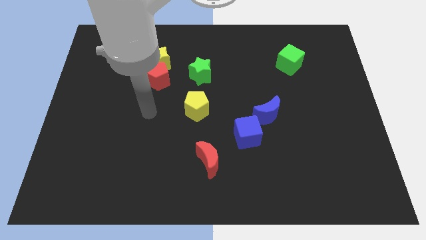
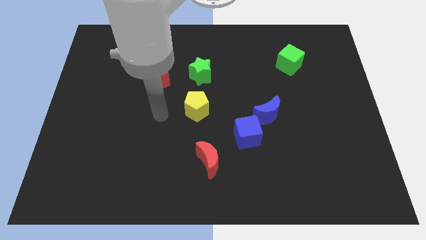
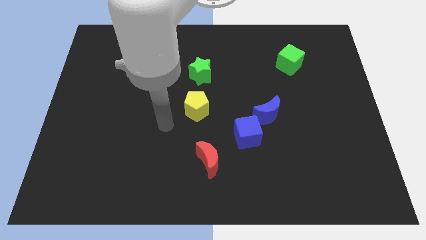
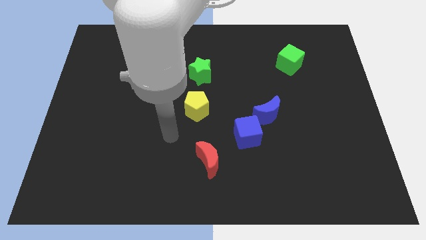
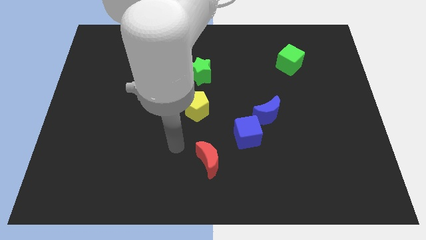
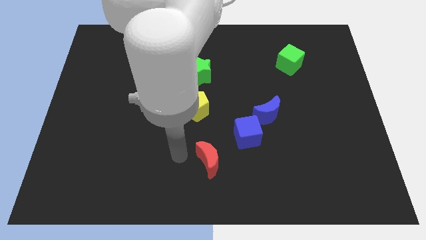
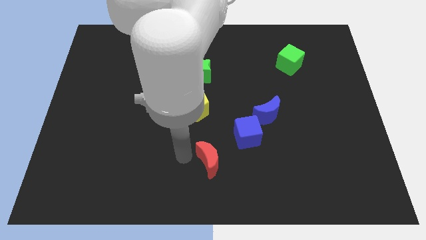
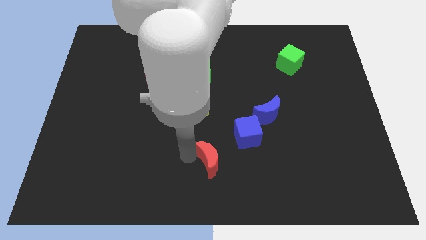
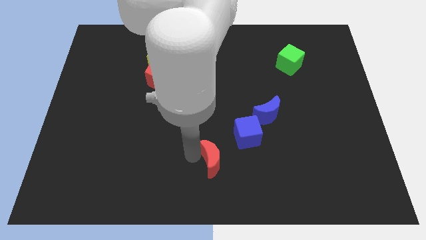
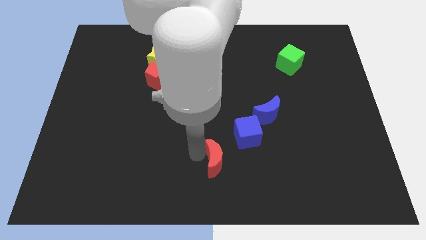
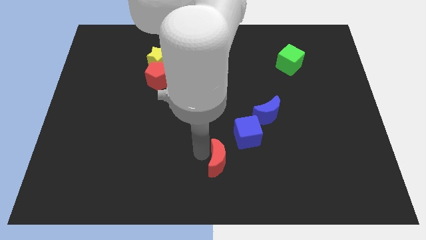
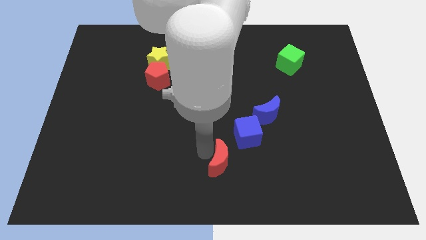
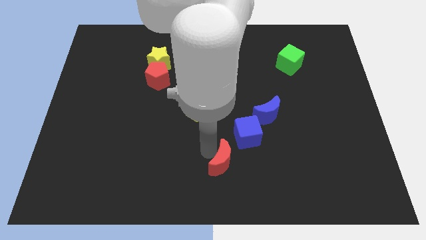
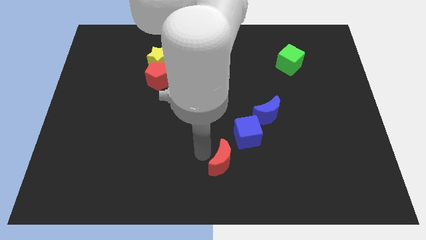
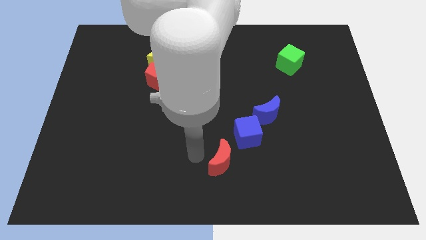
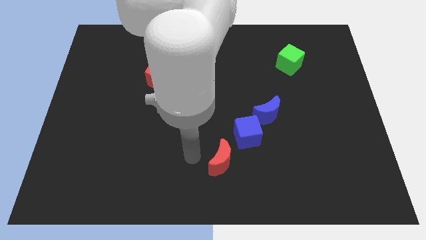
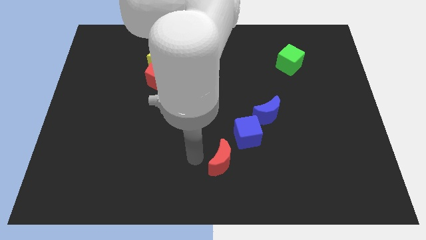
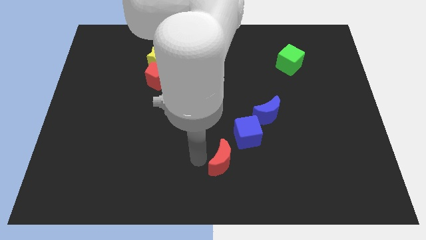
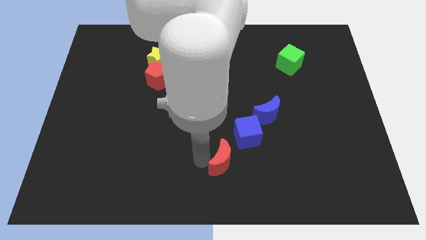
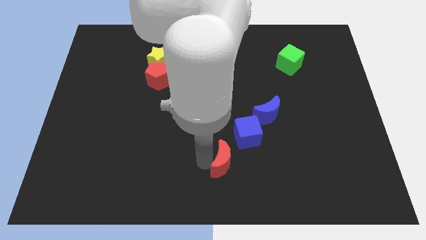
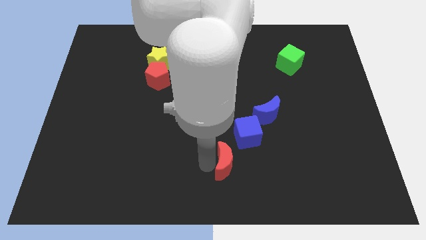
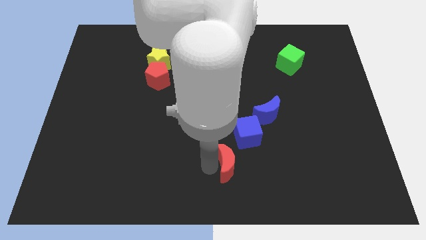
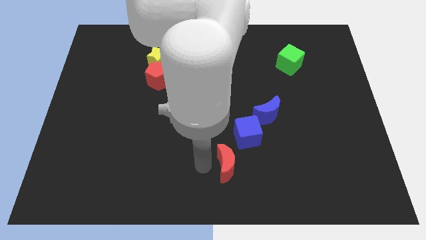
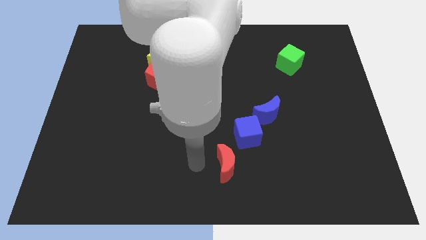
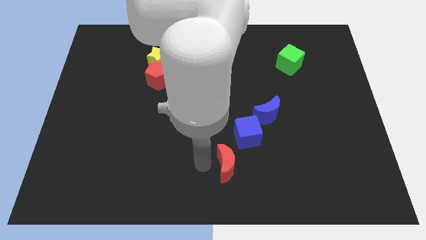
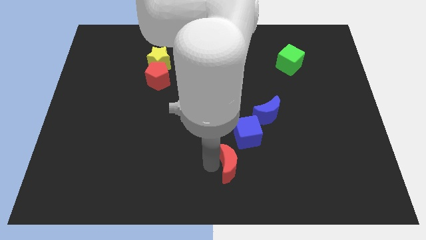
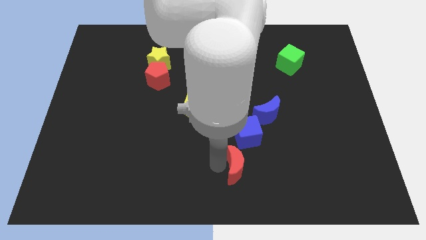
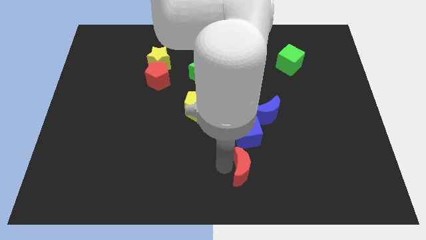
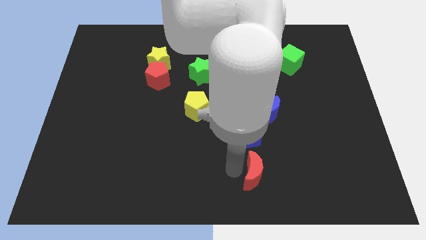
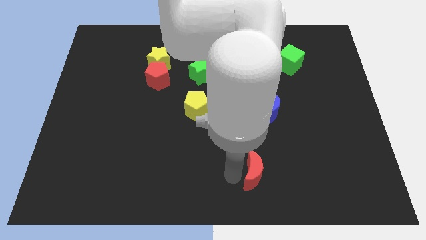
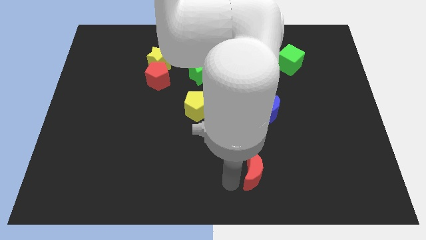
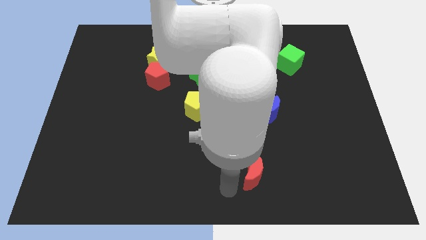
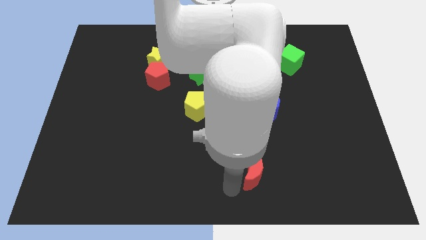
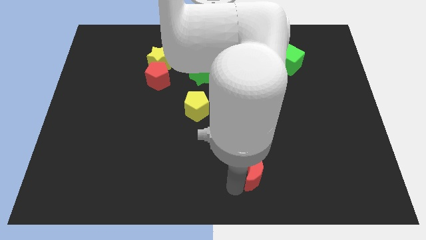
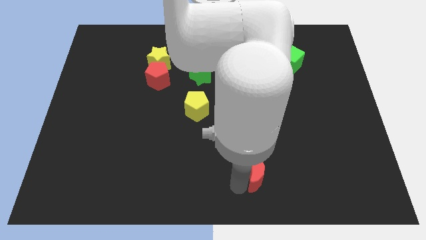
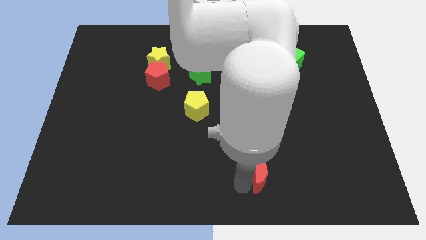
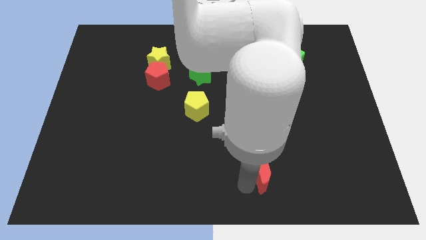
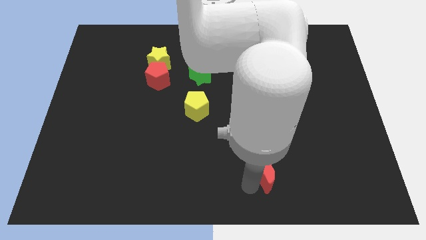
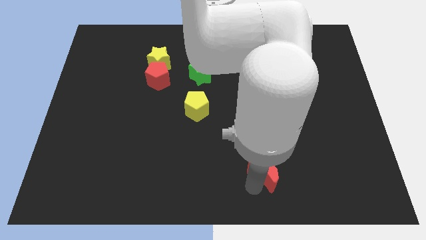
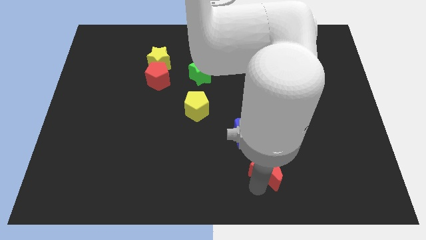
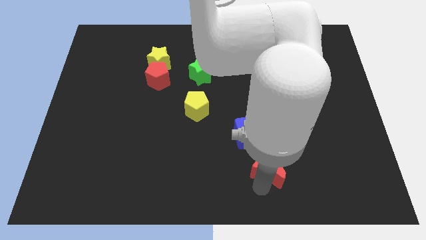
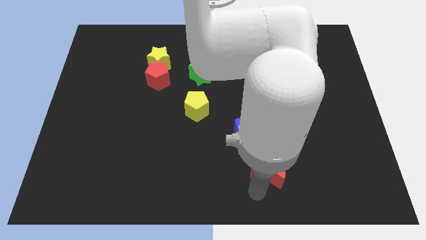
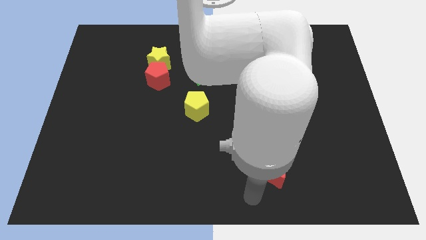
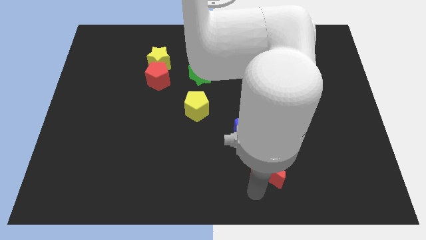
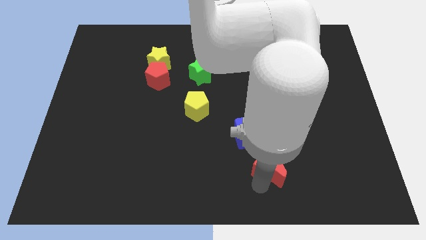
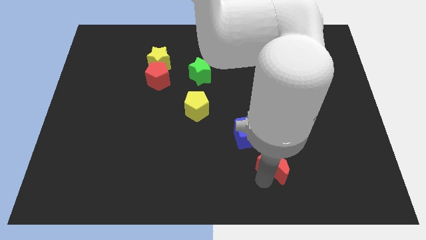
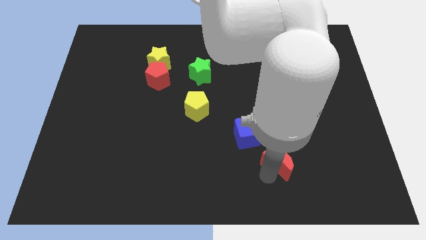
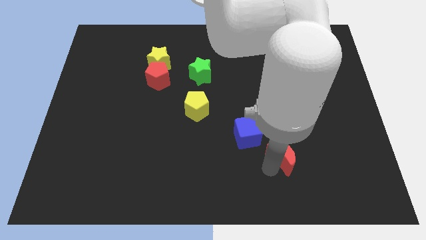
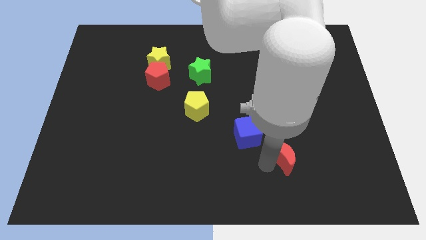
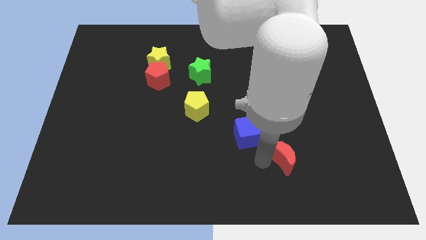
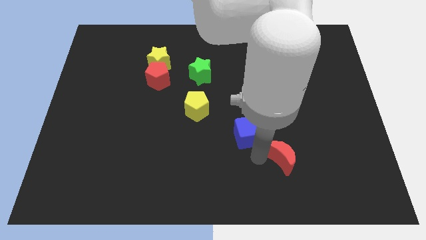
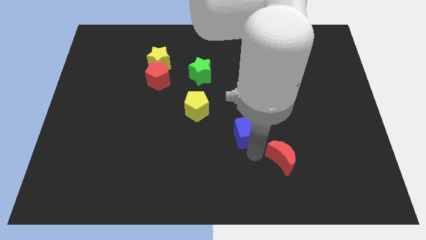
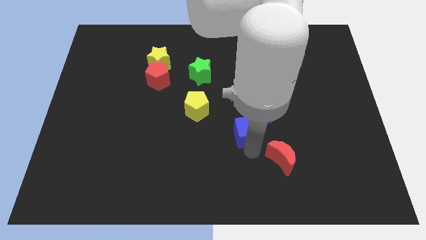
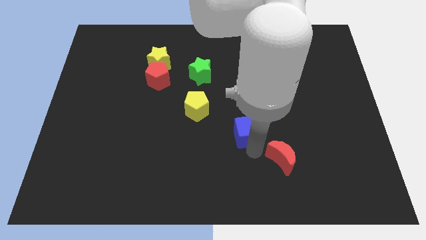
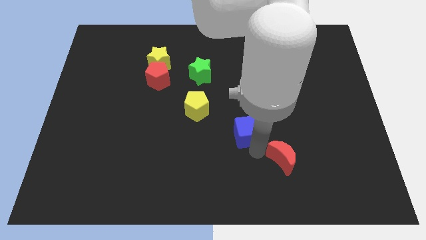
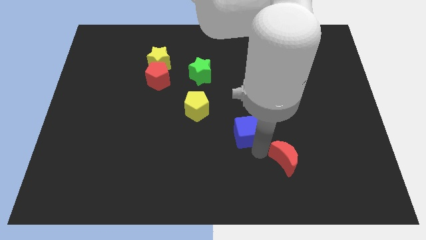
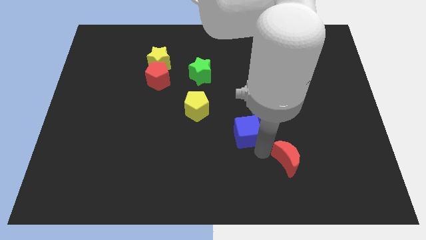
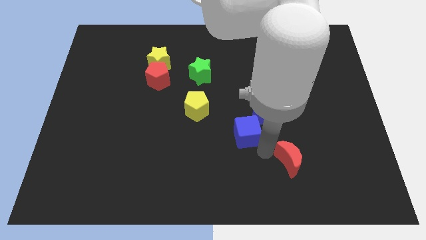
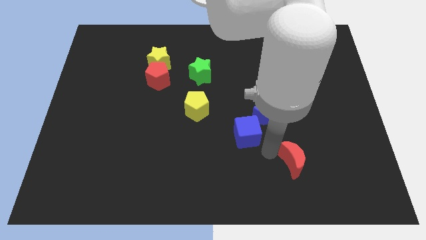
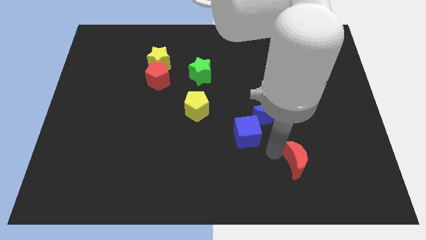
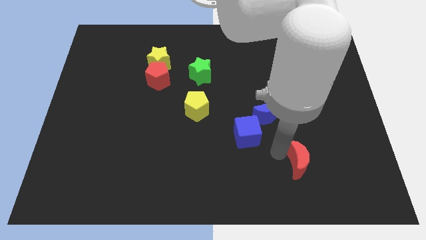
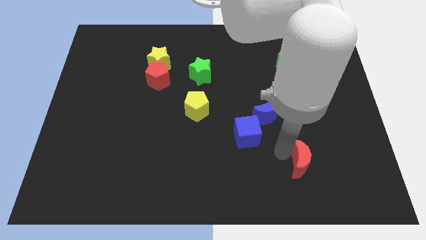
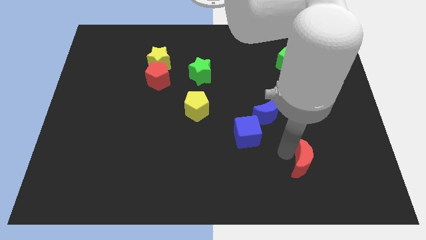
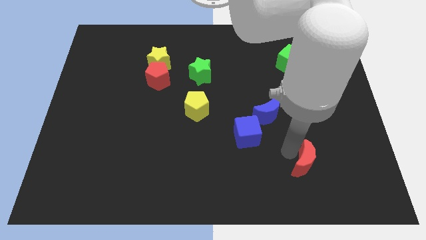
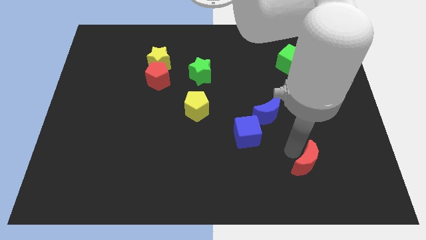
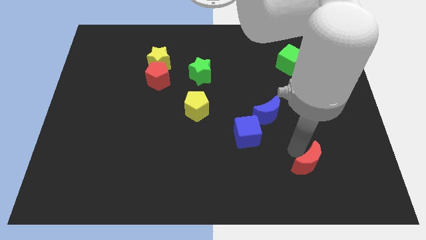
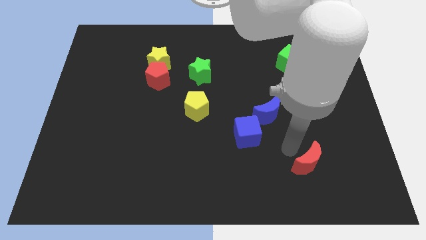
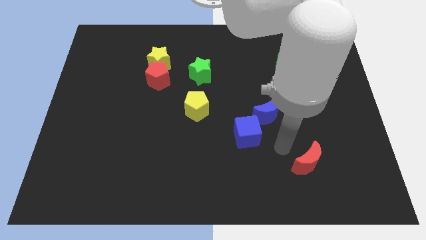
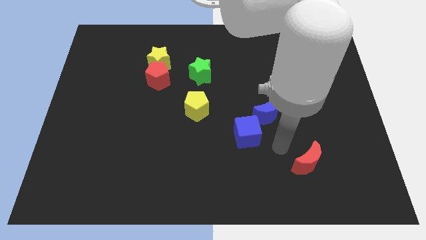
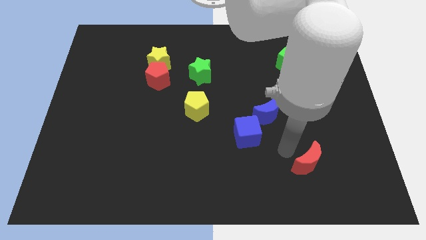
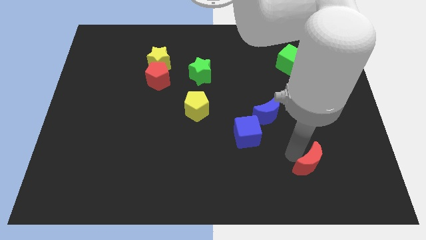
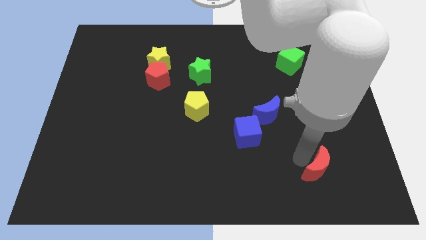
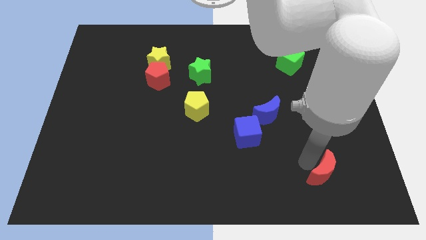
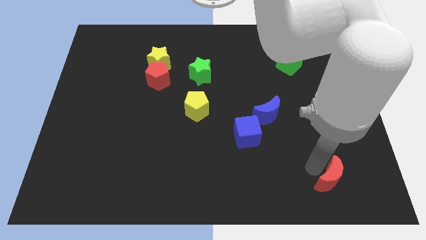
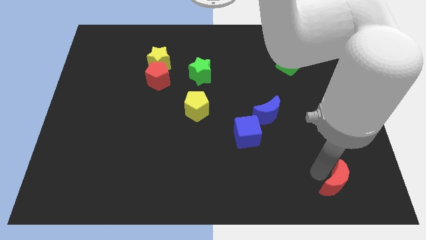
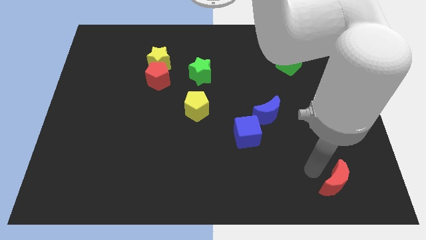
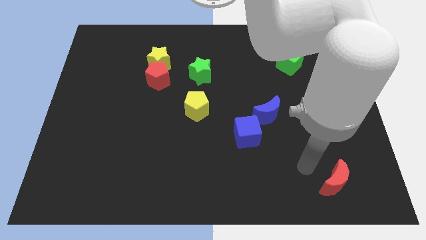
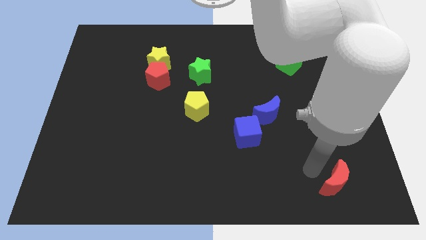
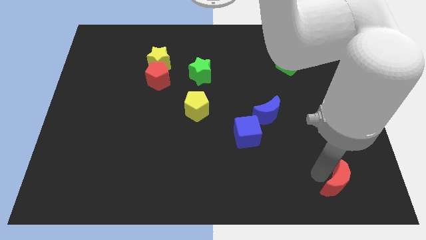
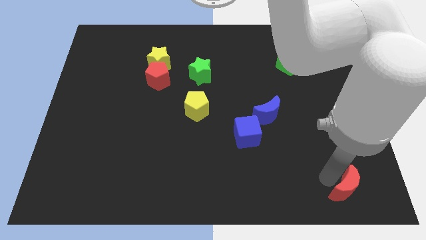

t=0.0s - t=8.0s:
slide the red moon to the bottom right corner
